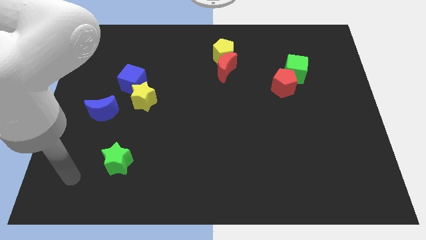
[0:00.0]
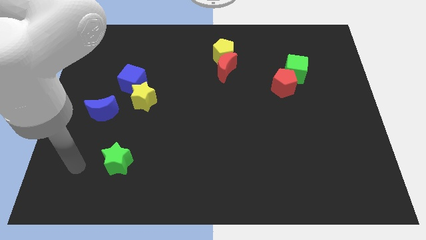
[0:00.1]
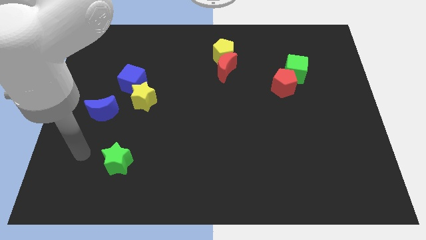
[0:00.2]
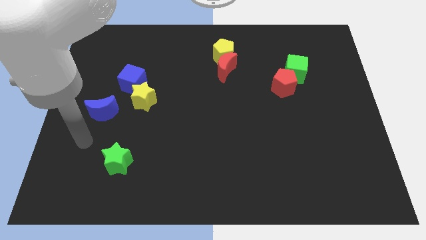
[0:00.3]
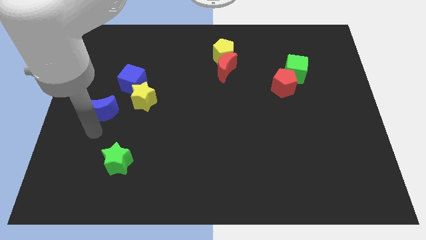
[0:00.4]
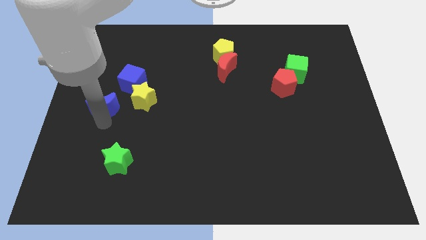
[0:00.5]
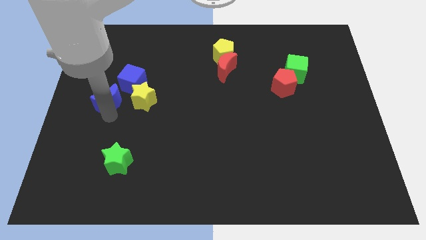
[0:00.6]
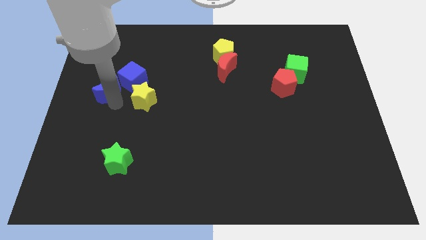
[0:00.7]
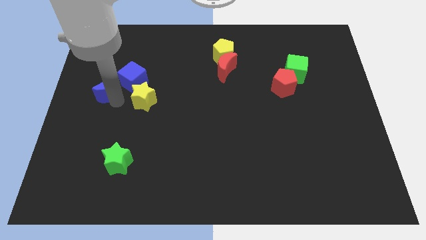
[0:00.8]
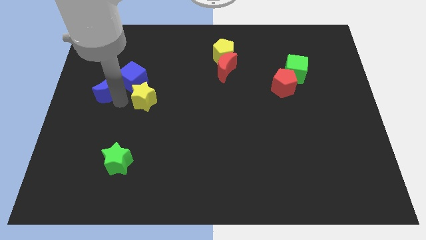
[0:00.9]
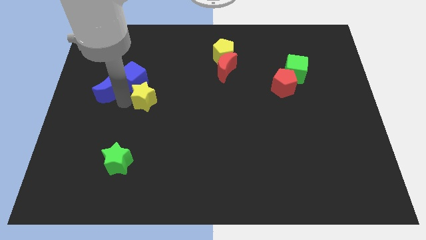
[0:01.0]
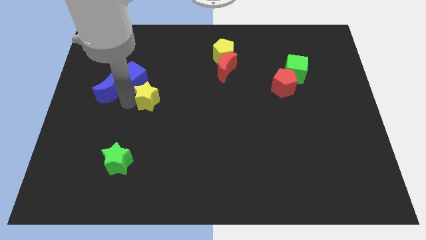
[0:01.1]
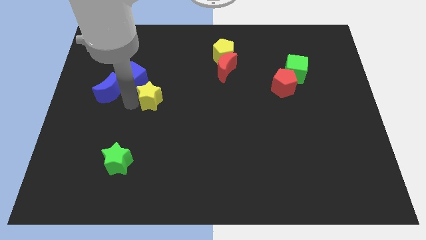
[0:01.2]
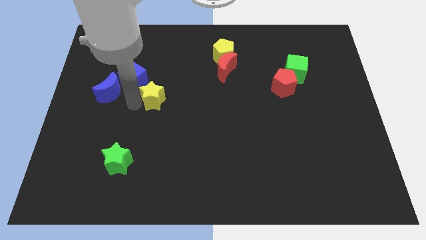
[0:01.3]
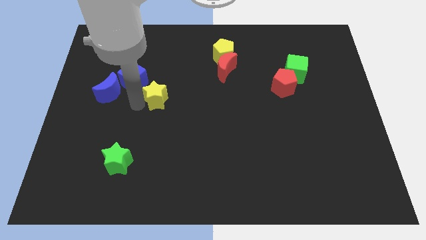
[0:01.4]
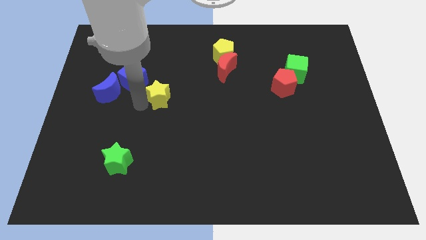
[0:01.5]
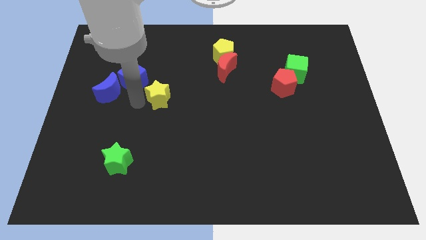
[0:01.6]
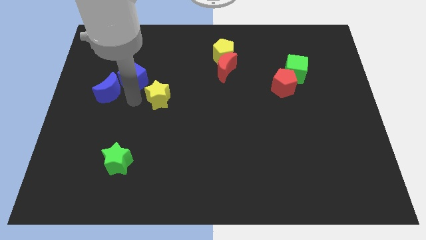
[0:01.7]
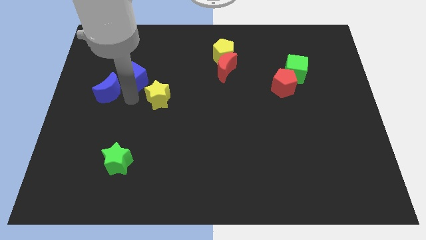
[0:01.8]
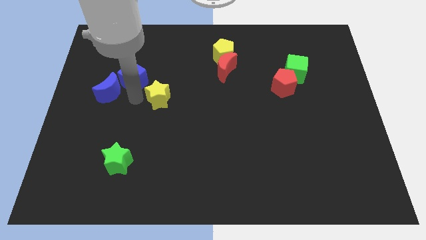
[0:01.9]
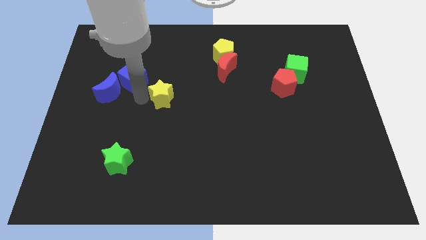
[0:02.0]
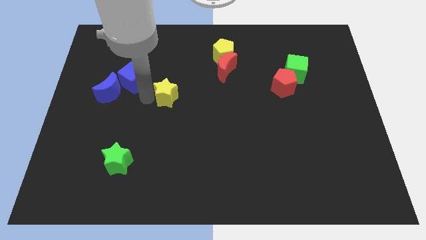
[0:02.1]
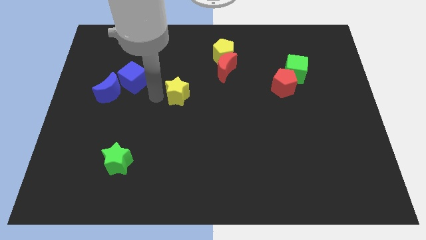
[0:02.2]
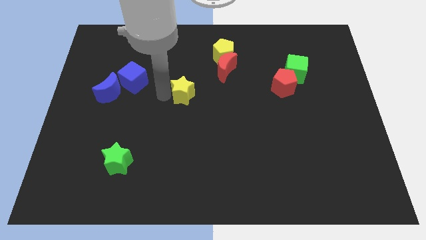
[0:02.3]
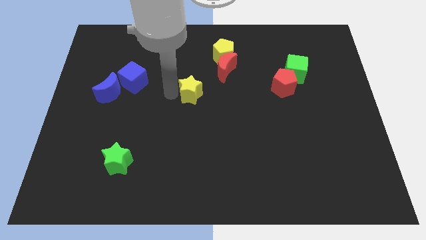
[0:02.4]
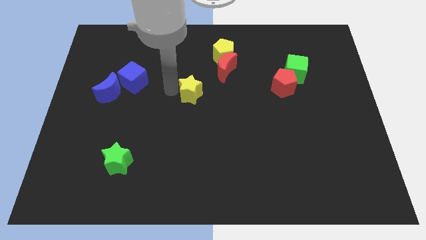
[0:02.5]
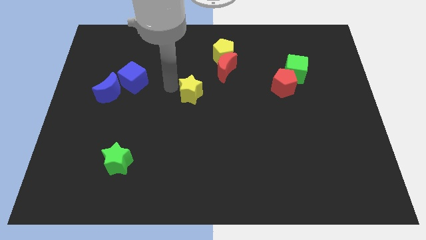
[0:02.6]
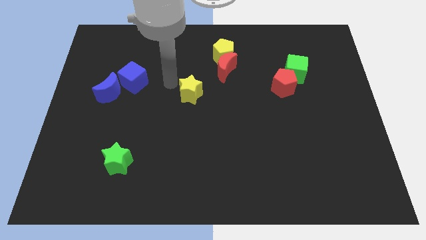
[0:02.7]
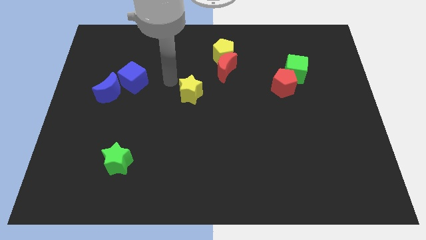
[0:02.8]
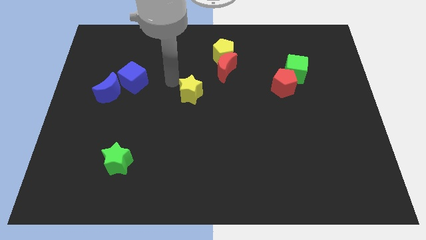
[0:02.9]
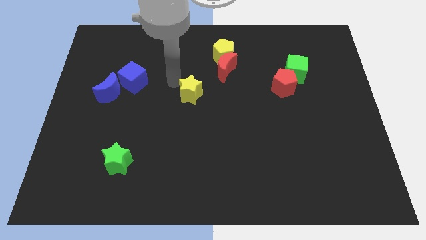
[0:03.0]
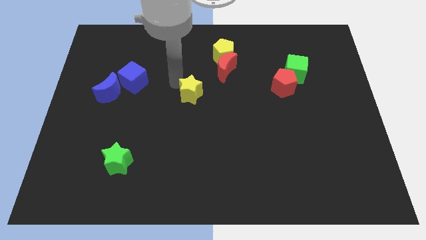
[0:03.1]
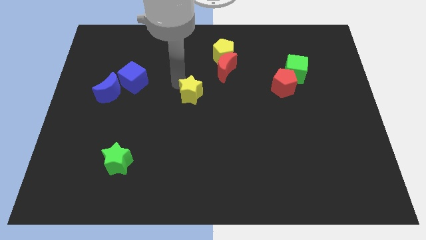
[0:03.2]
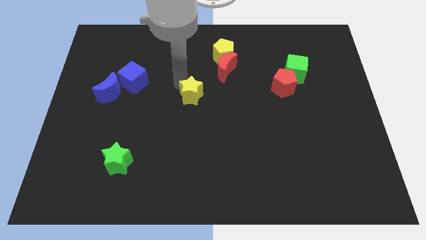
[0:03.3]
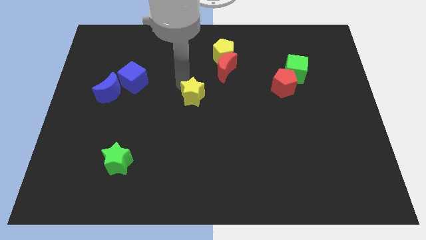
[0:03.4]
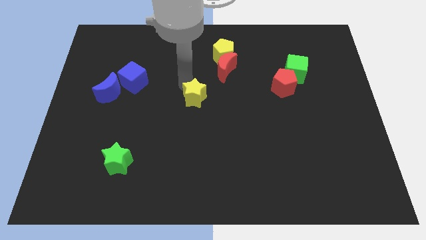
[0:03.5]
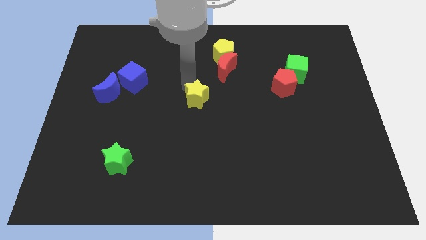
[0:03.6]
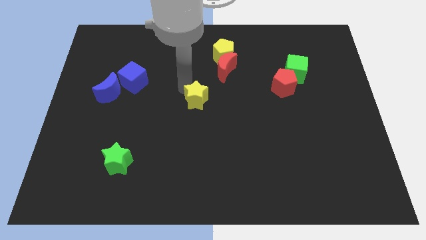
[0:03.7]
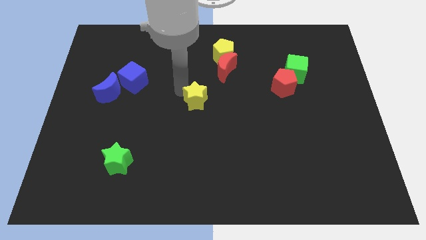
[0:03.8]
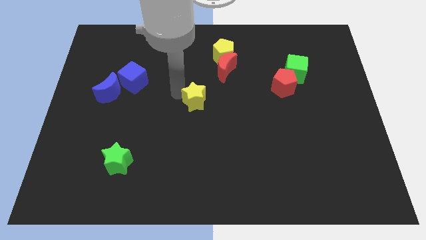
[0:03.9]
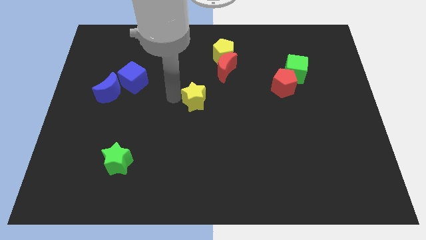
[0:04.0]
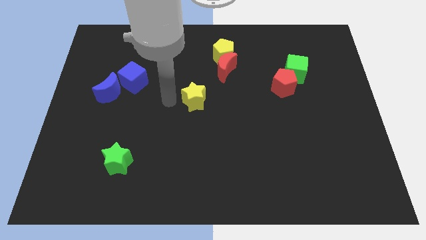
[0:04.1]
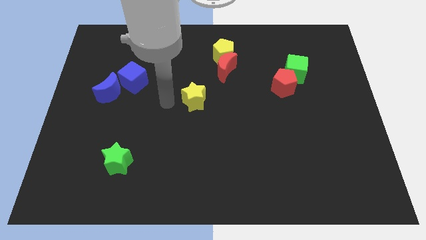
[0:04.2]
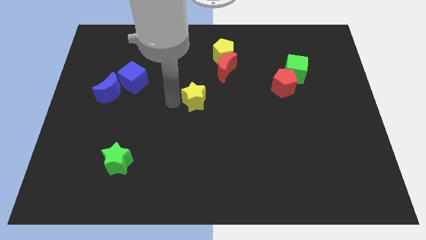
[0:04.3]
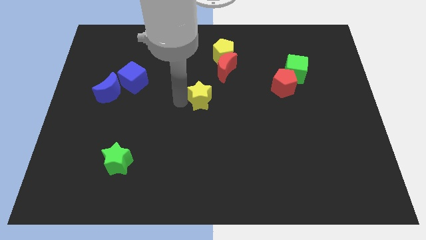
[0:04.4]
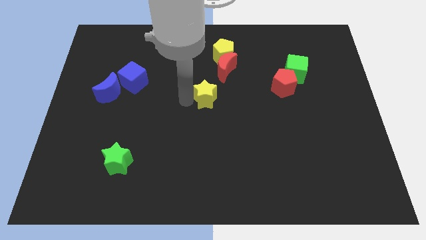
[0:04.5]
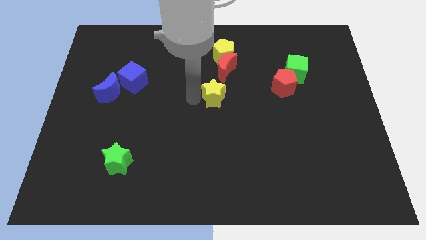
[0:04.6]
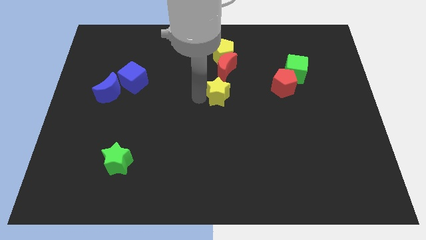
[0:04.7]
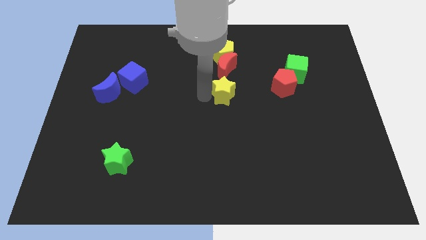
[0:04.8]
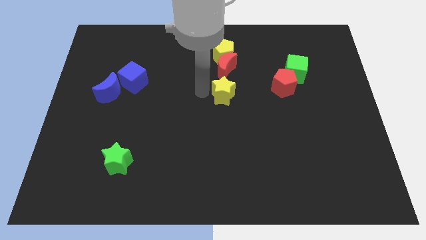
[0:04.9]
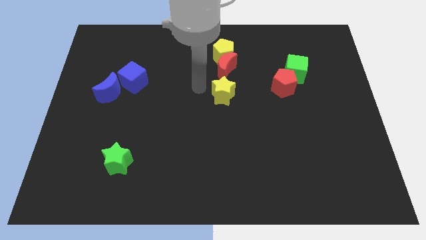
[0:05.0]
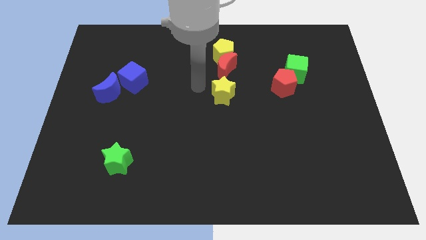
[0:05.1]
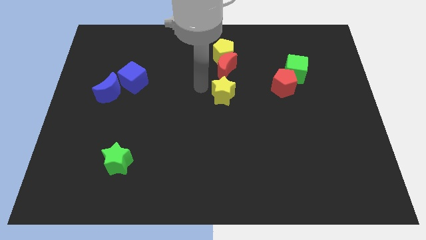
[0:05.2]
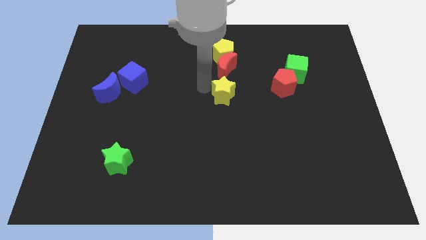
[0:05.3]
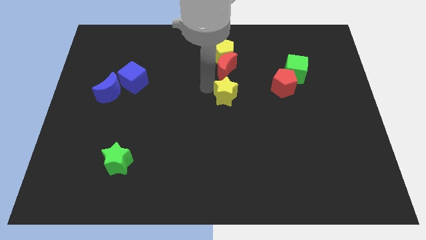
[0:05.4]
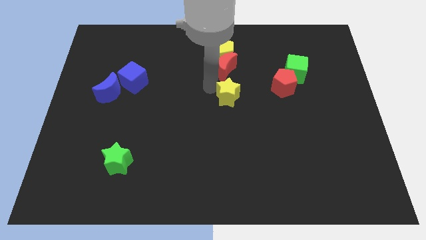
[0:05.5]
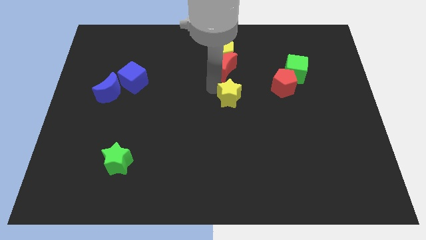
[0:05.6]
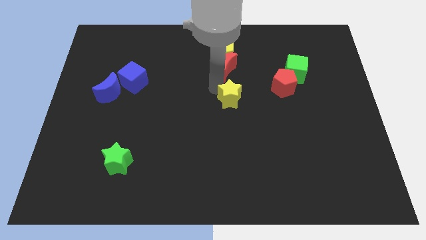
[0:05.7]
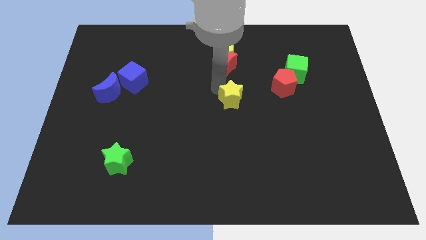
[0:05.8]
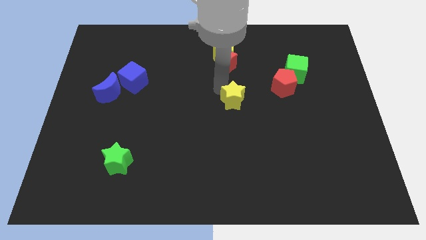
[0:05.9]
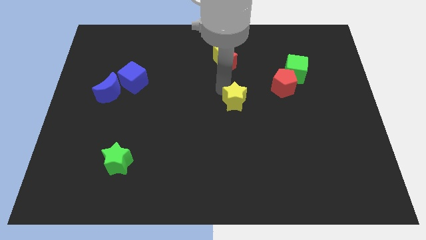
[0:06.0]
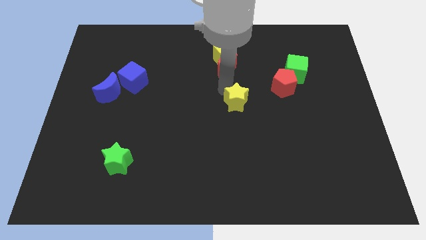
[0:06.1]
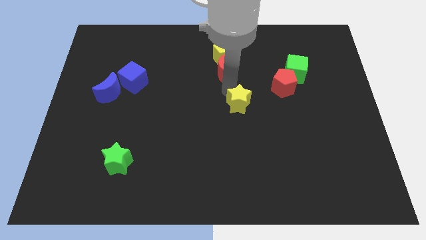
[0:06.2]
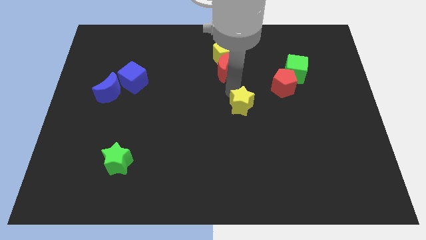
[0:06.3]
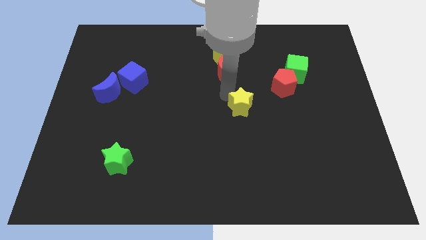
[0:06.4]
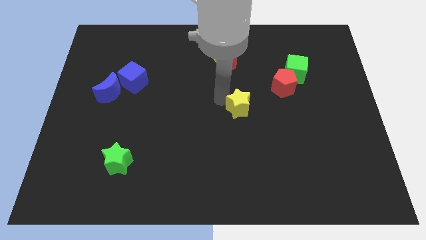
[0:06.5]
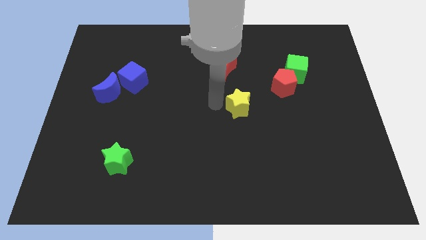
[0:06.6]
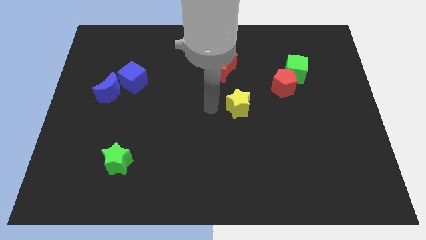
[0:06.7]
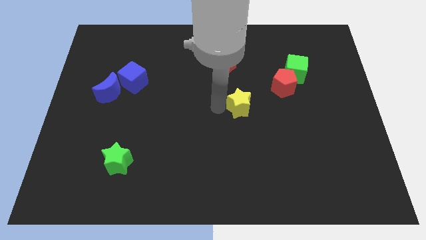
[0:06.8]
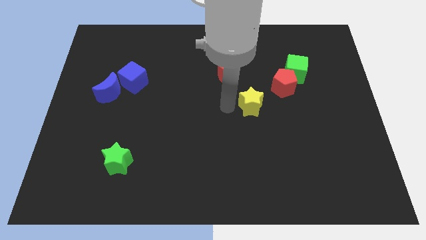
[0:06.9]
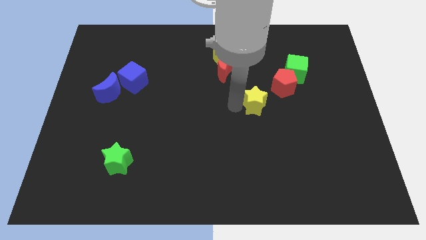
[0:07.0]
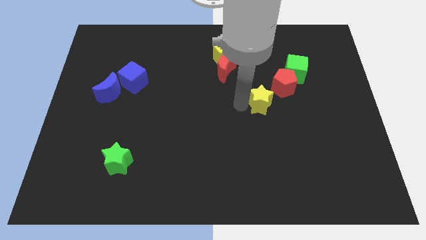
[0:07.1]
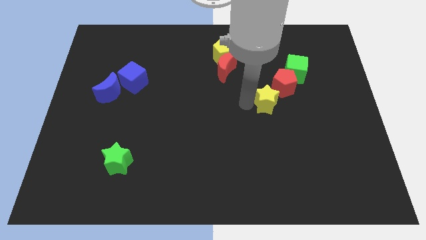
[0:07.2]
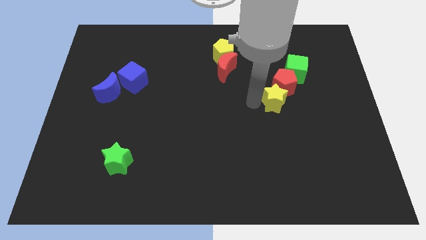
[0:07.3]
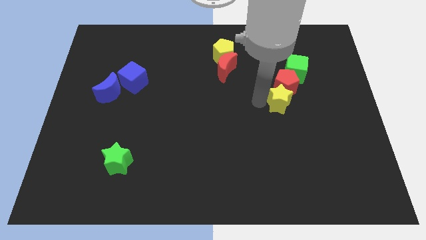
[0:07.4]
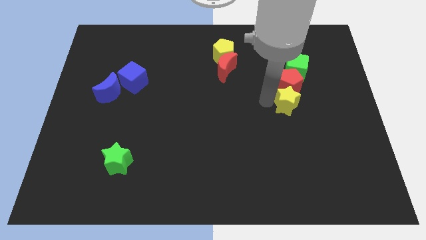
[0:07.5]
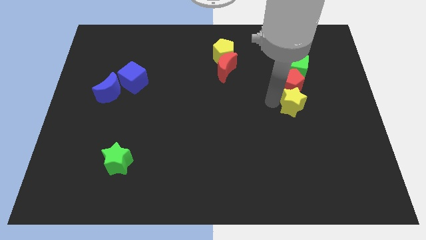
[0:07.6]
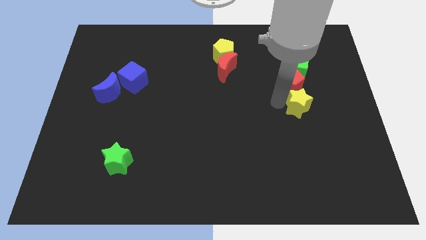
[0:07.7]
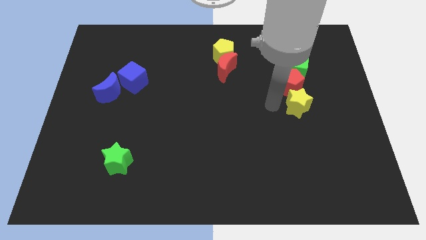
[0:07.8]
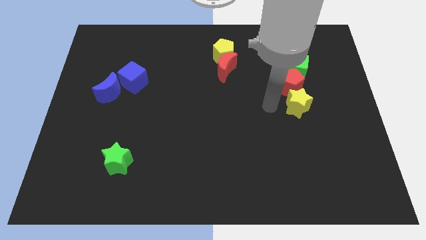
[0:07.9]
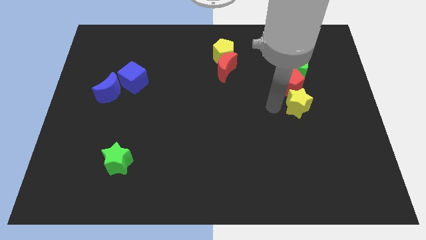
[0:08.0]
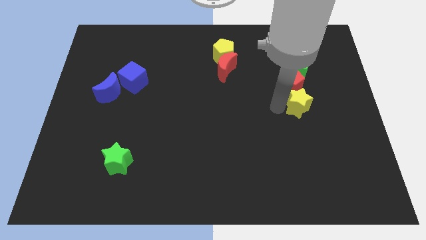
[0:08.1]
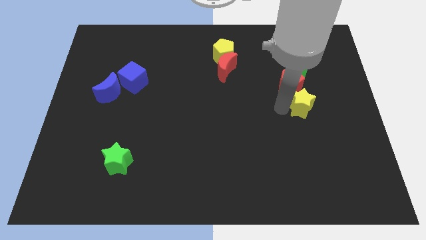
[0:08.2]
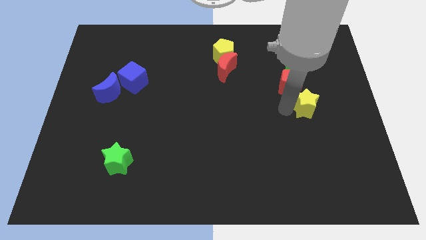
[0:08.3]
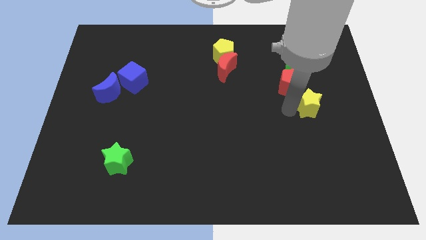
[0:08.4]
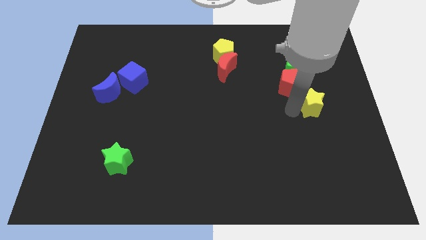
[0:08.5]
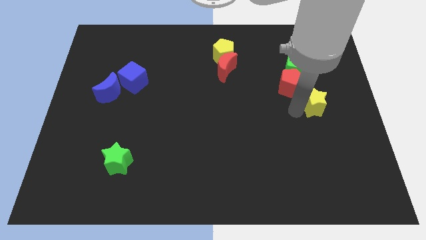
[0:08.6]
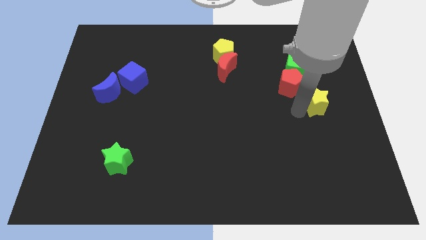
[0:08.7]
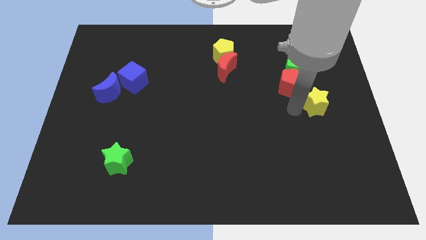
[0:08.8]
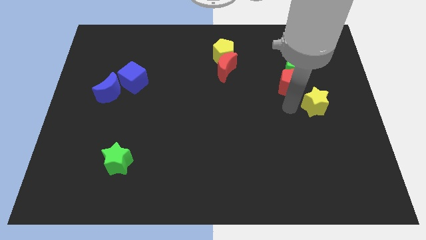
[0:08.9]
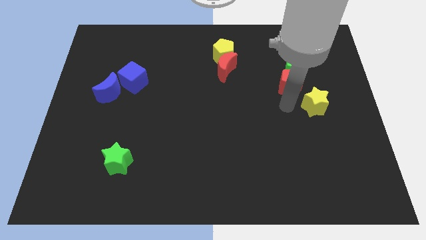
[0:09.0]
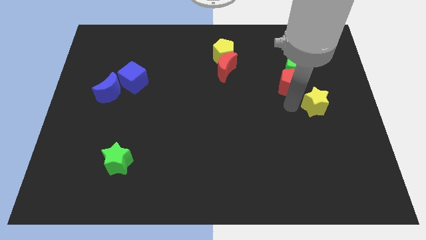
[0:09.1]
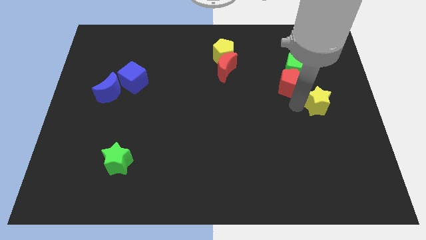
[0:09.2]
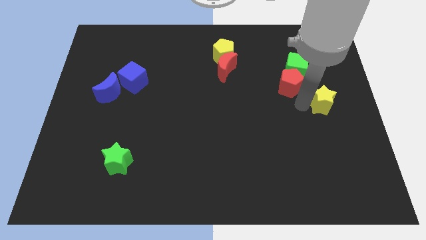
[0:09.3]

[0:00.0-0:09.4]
put the yellow star to the right side
